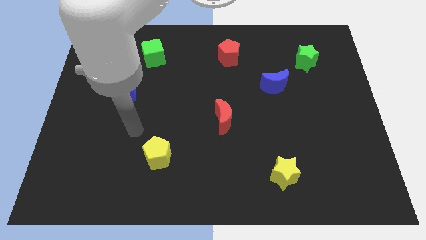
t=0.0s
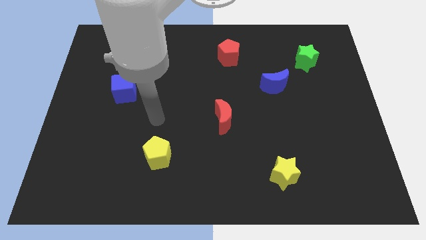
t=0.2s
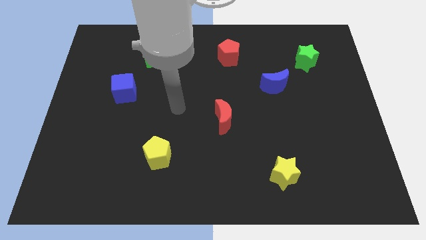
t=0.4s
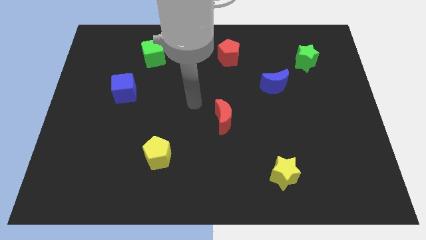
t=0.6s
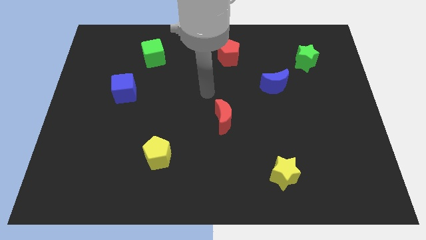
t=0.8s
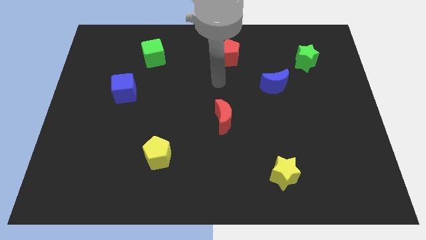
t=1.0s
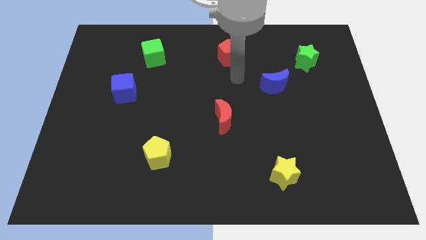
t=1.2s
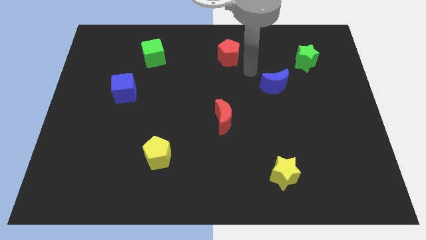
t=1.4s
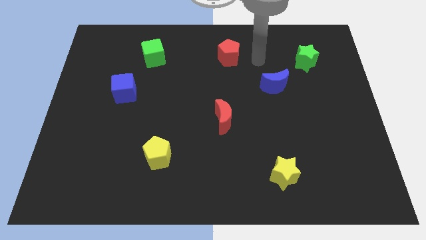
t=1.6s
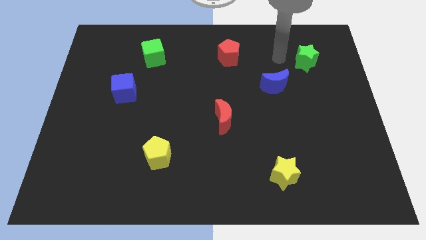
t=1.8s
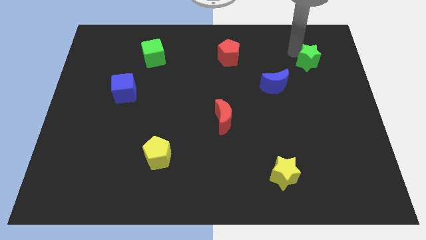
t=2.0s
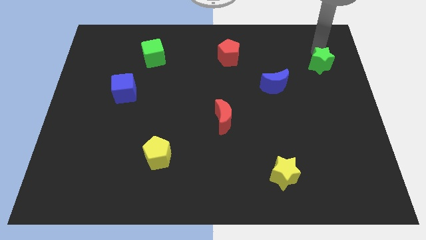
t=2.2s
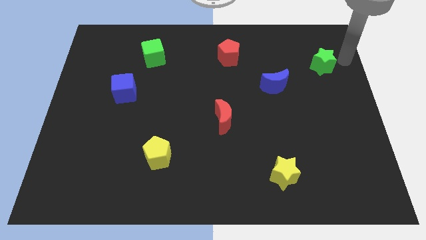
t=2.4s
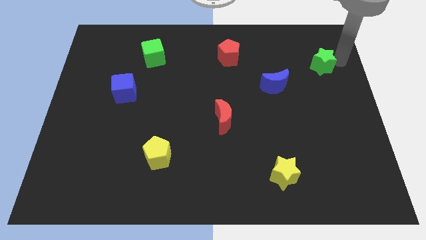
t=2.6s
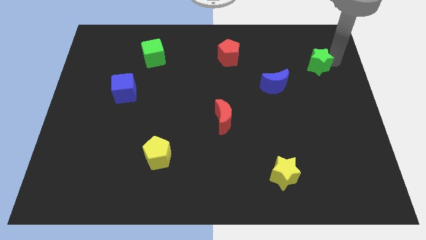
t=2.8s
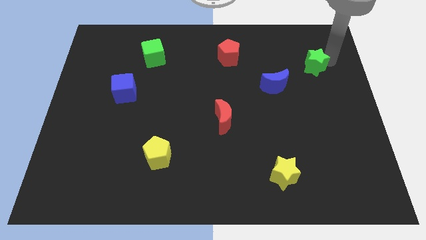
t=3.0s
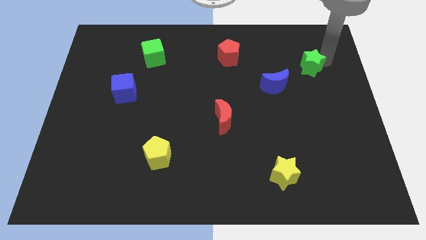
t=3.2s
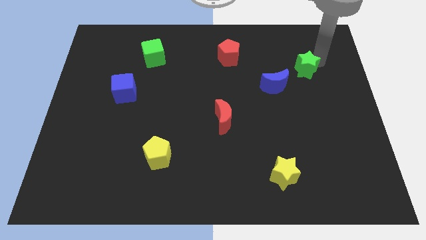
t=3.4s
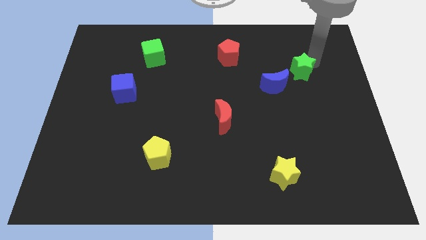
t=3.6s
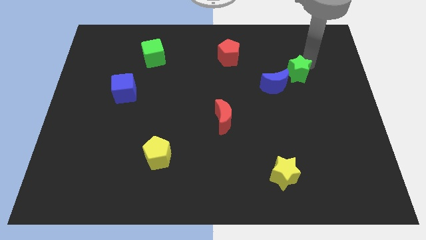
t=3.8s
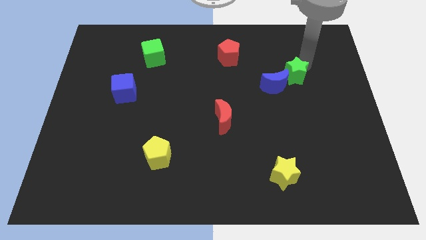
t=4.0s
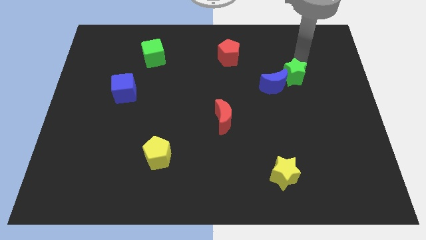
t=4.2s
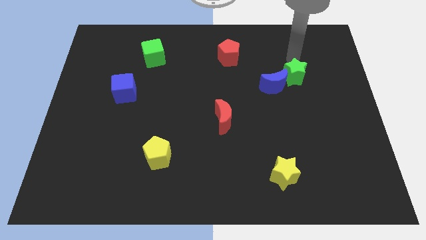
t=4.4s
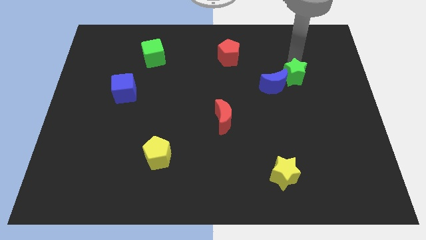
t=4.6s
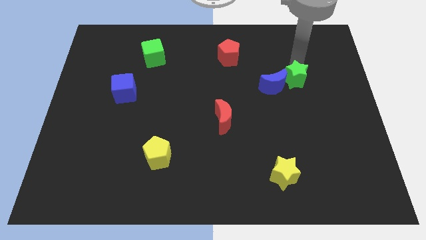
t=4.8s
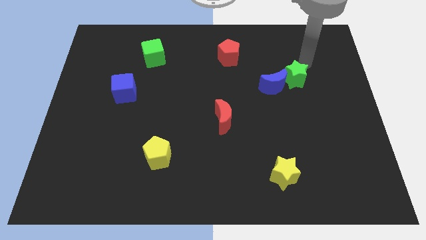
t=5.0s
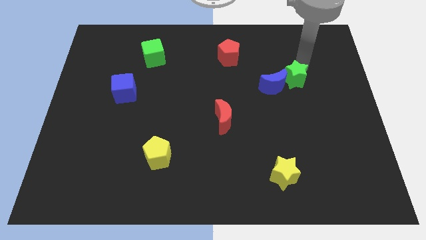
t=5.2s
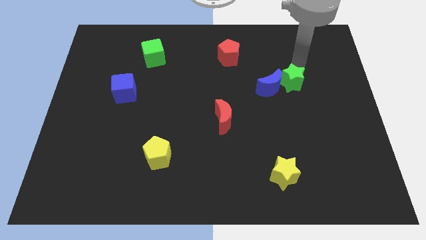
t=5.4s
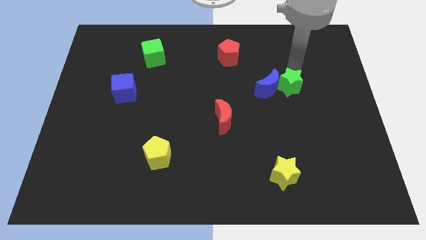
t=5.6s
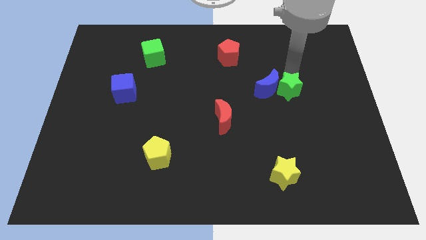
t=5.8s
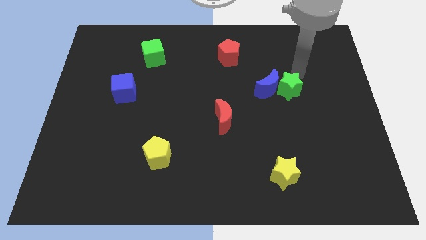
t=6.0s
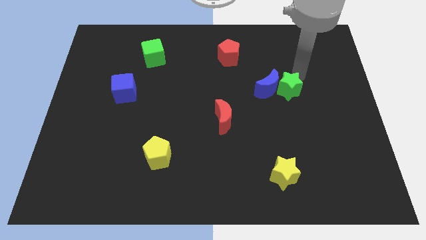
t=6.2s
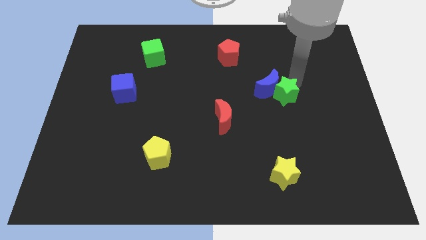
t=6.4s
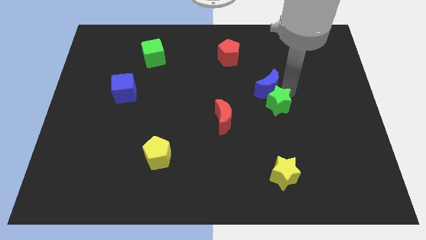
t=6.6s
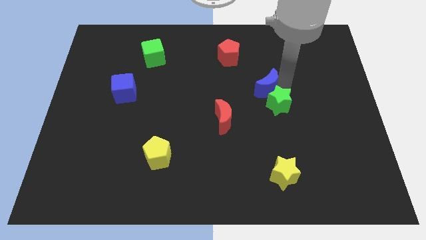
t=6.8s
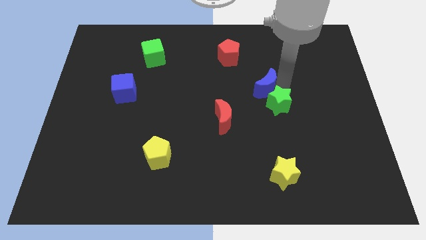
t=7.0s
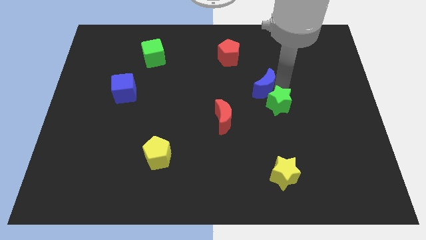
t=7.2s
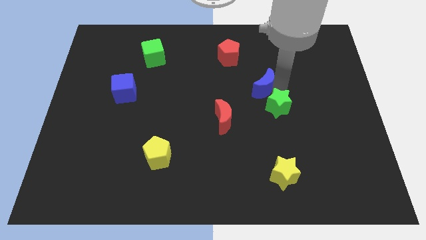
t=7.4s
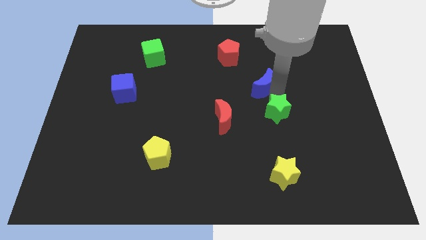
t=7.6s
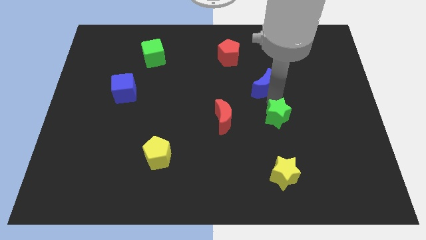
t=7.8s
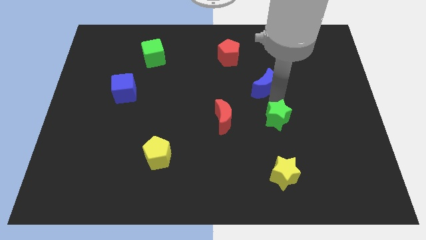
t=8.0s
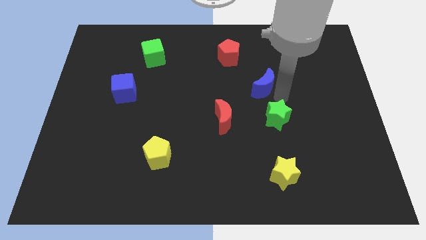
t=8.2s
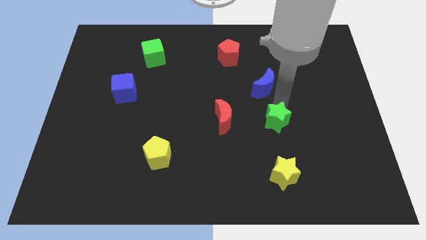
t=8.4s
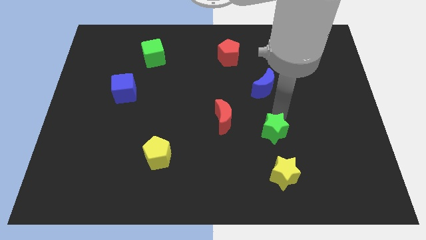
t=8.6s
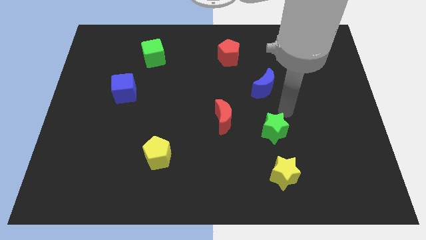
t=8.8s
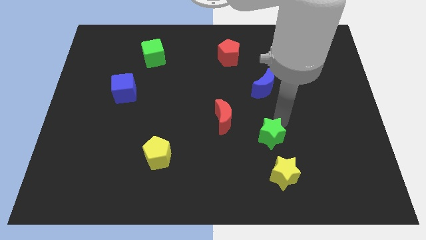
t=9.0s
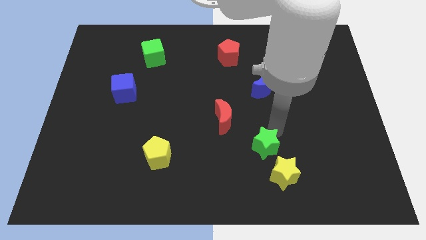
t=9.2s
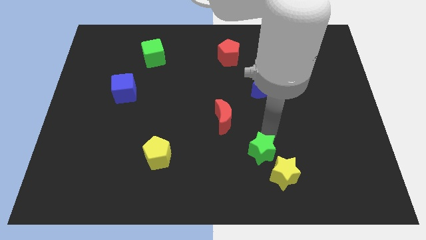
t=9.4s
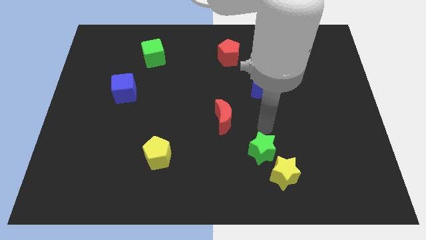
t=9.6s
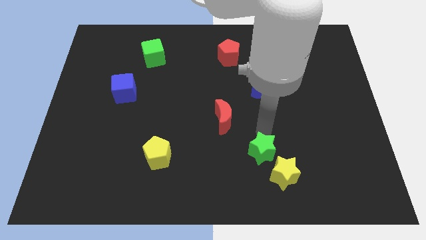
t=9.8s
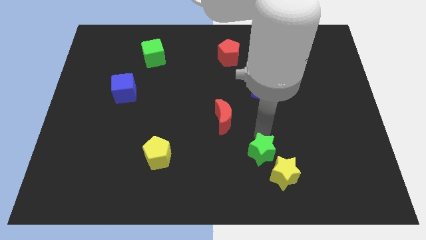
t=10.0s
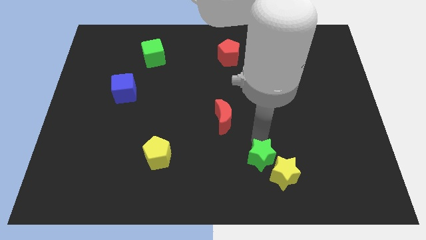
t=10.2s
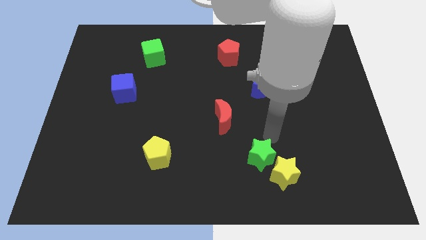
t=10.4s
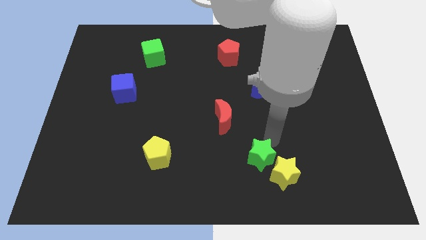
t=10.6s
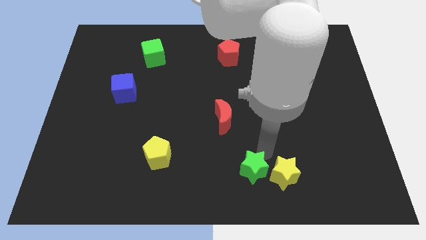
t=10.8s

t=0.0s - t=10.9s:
put the green star to the bottom

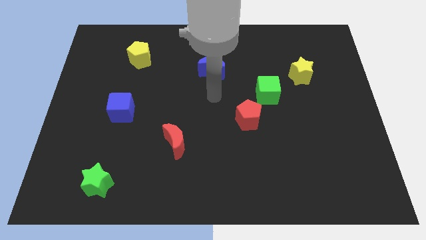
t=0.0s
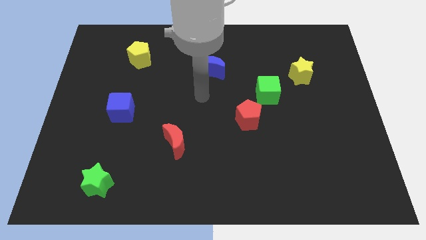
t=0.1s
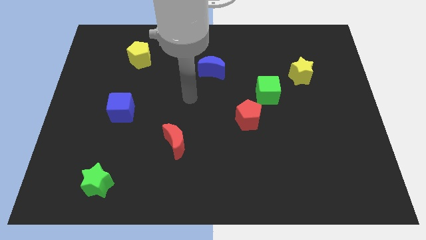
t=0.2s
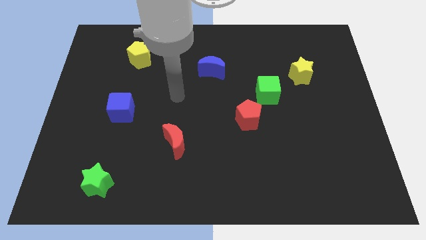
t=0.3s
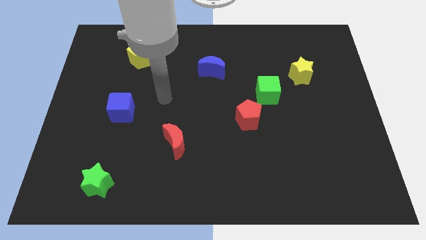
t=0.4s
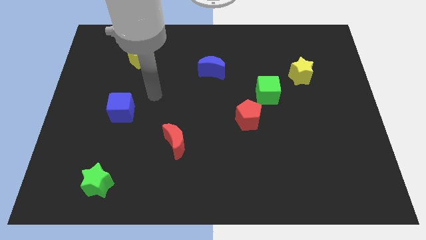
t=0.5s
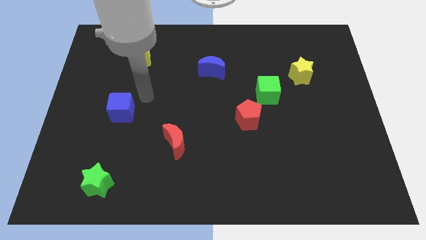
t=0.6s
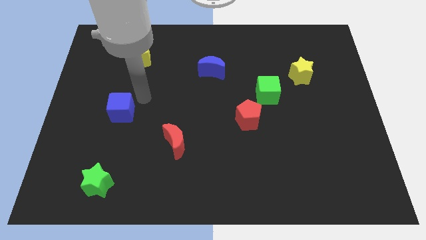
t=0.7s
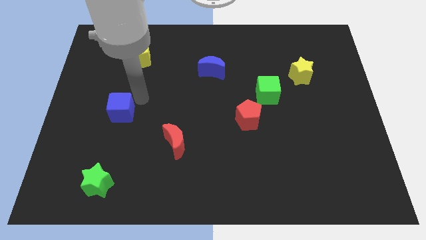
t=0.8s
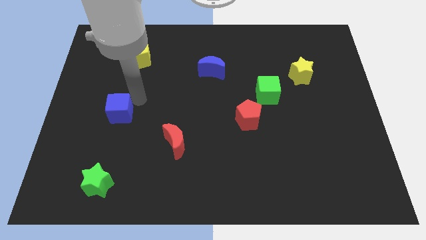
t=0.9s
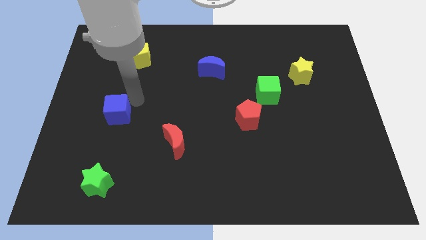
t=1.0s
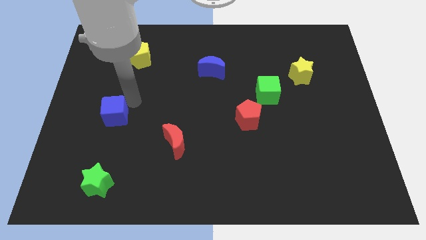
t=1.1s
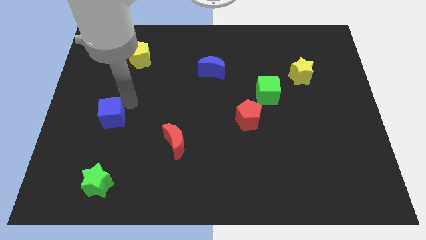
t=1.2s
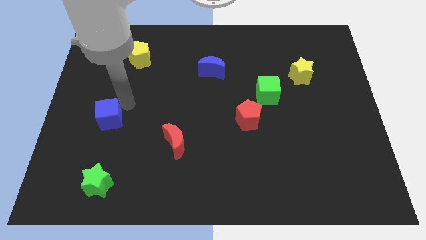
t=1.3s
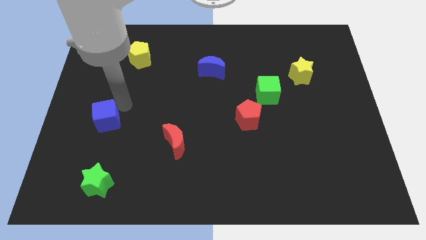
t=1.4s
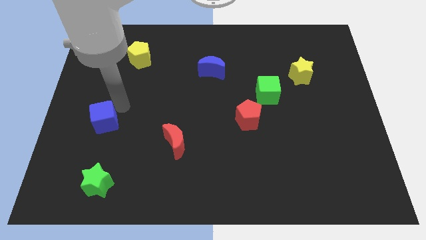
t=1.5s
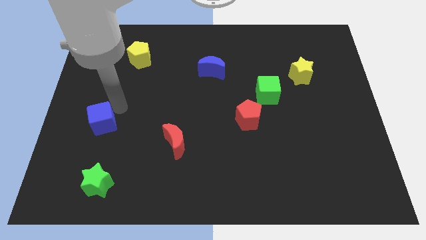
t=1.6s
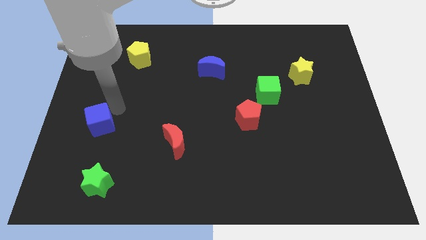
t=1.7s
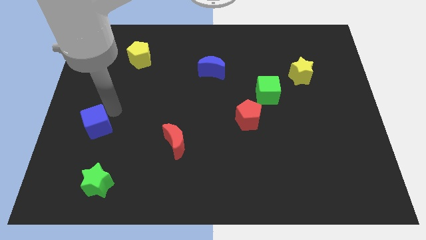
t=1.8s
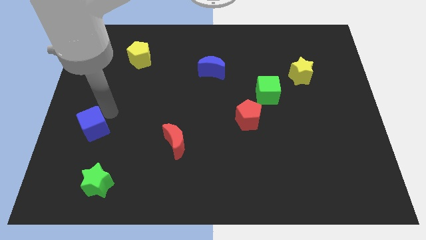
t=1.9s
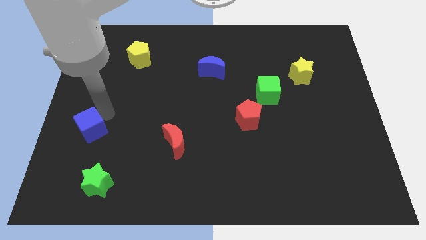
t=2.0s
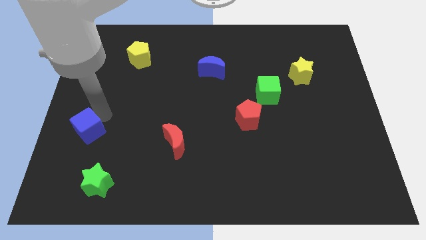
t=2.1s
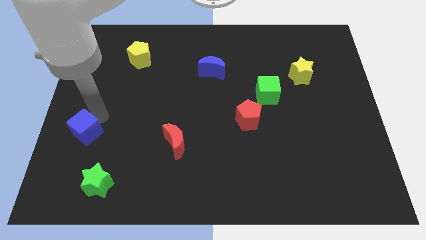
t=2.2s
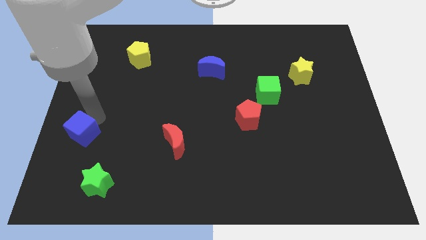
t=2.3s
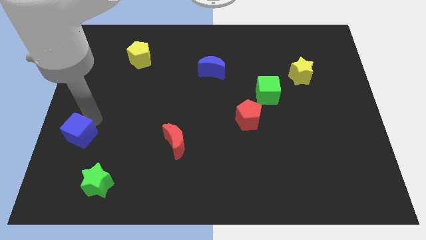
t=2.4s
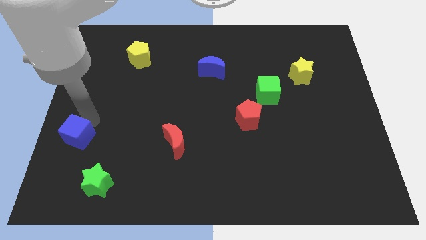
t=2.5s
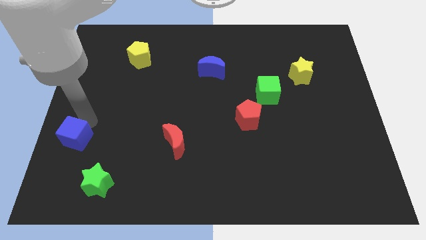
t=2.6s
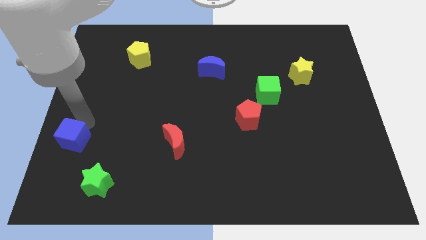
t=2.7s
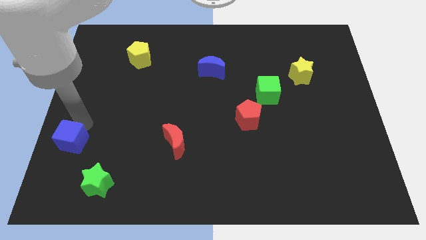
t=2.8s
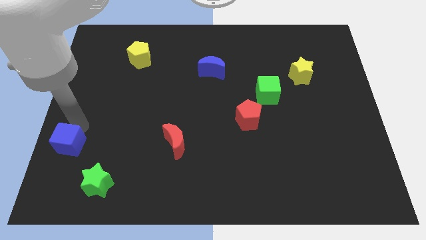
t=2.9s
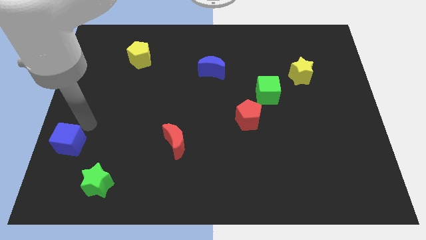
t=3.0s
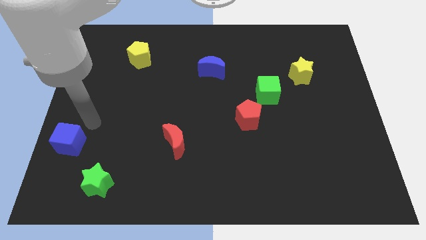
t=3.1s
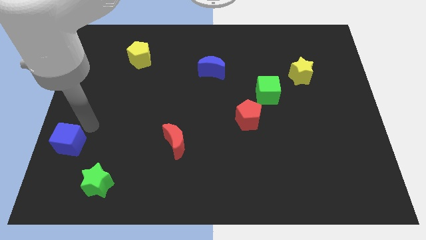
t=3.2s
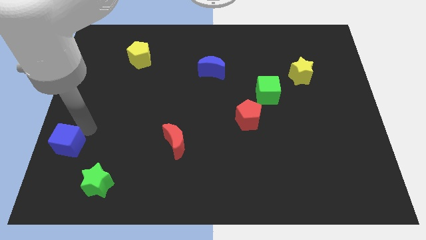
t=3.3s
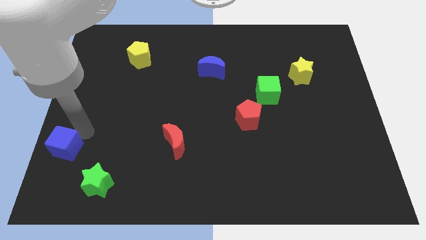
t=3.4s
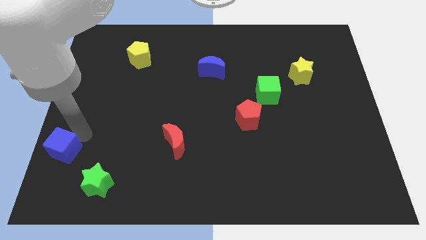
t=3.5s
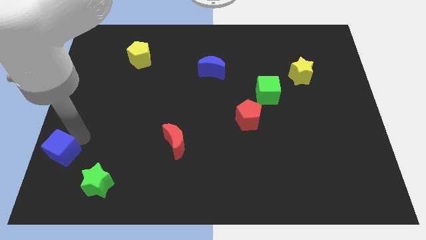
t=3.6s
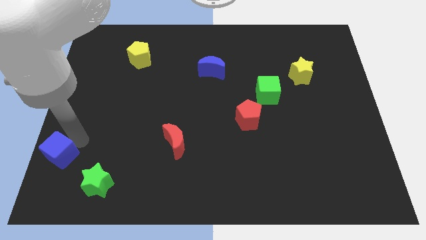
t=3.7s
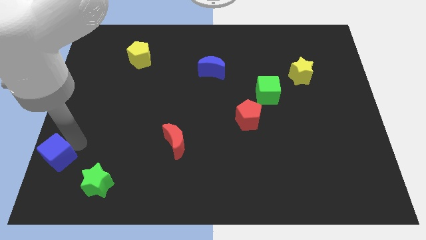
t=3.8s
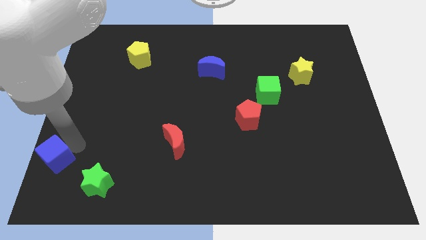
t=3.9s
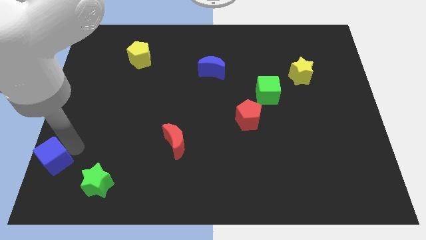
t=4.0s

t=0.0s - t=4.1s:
move the blue cube to the lower left corner
